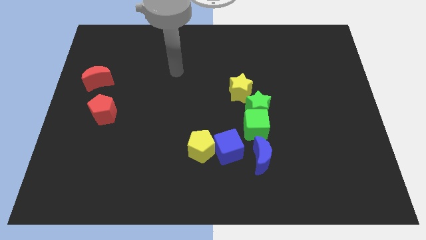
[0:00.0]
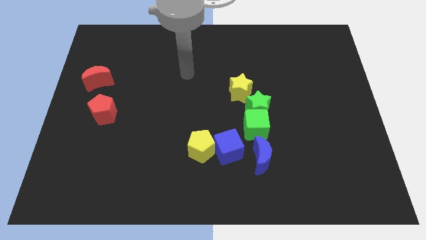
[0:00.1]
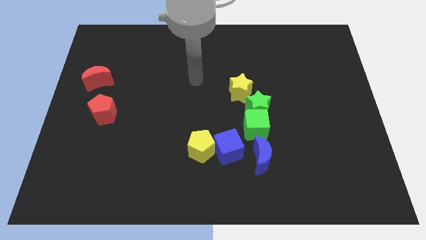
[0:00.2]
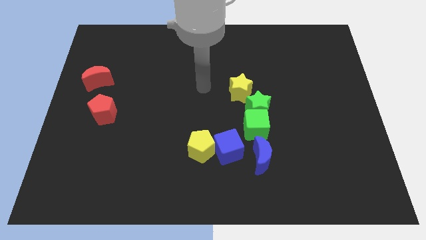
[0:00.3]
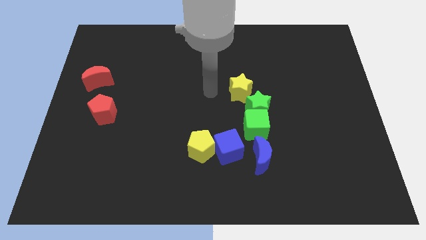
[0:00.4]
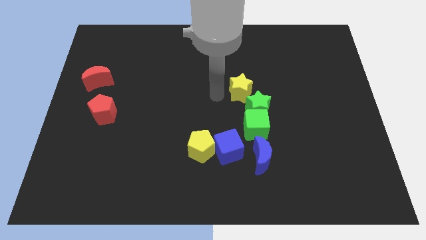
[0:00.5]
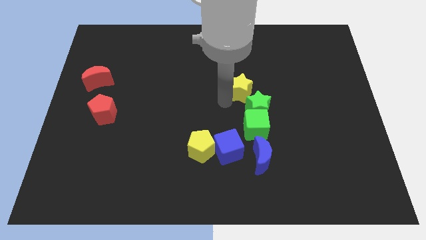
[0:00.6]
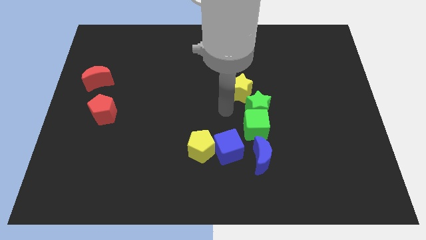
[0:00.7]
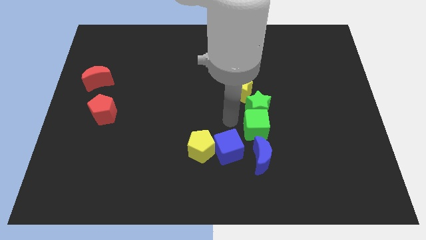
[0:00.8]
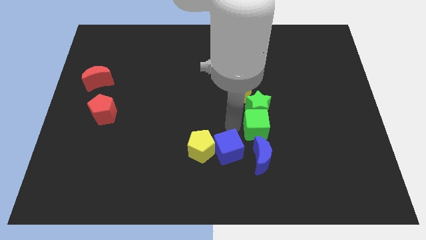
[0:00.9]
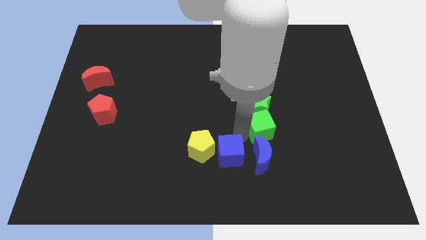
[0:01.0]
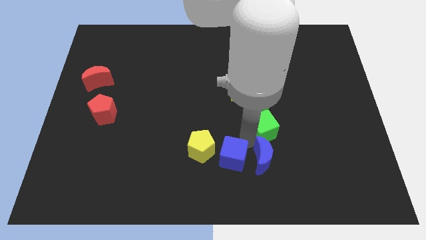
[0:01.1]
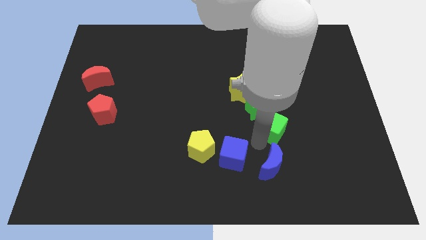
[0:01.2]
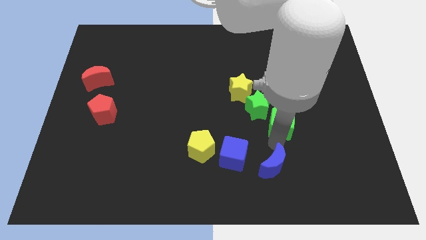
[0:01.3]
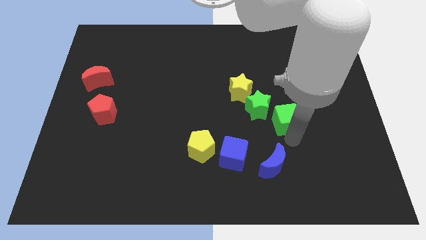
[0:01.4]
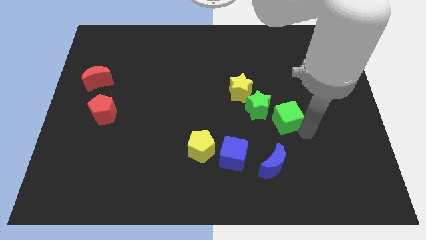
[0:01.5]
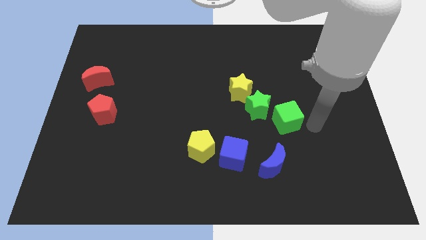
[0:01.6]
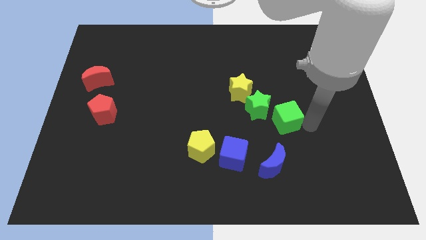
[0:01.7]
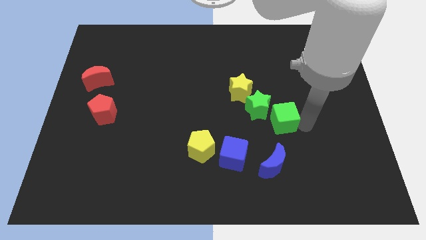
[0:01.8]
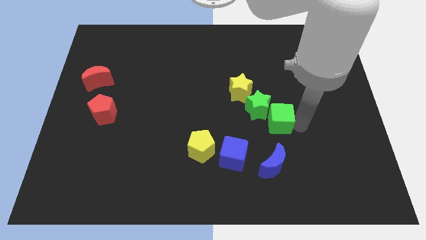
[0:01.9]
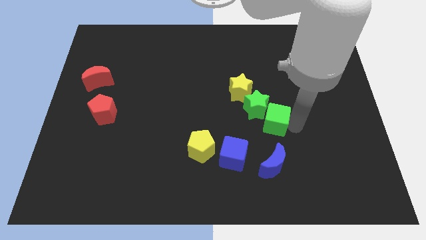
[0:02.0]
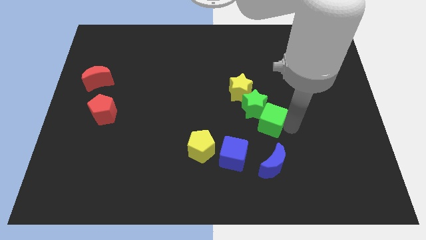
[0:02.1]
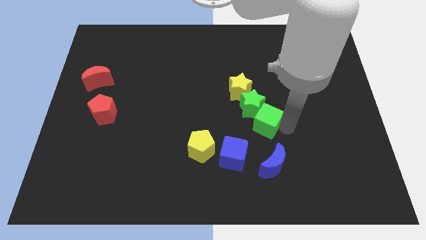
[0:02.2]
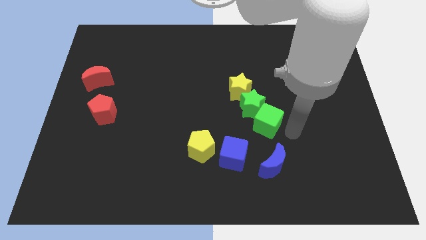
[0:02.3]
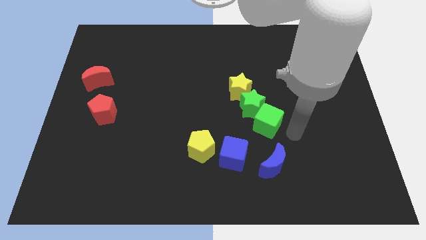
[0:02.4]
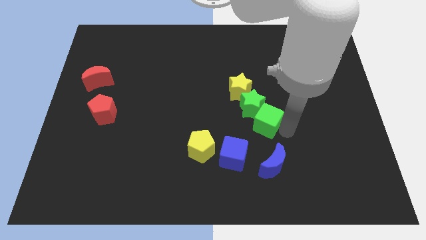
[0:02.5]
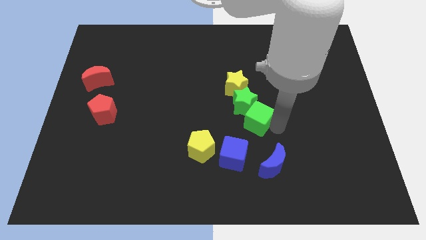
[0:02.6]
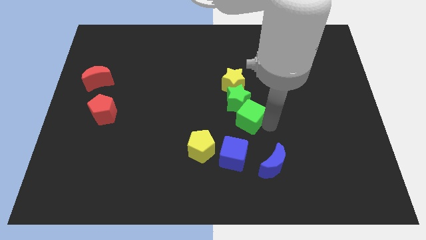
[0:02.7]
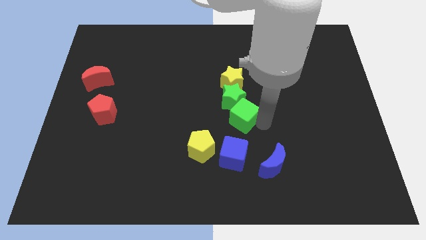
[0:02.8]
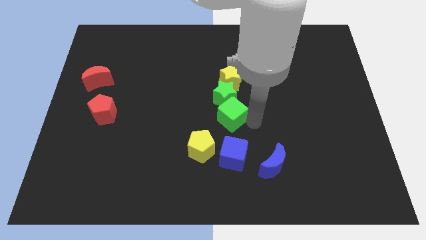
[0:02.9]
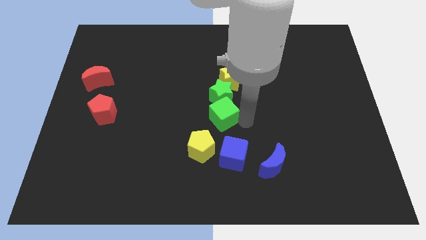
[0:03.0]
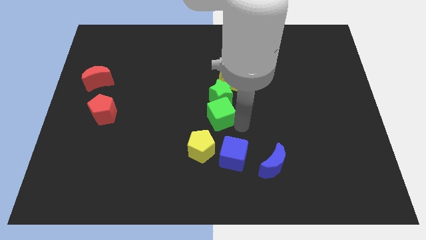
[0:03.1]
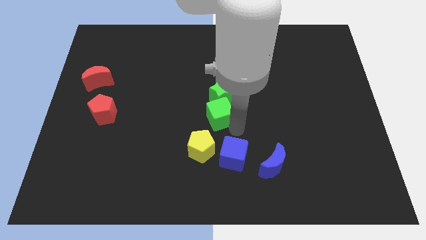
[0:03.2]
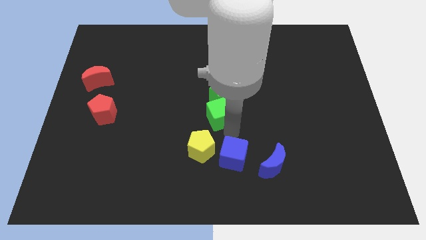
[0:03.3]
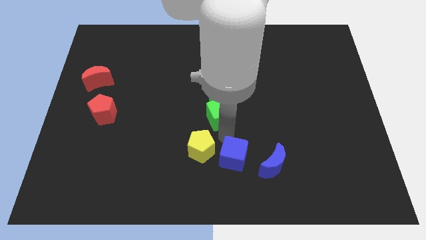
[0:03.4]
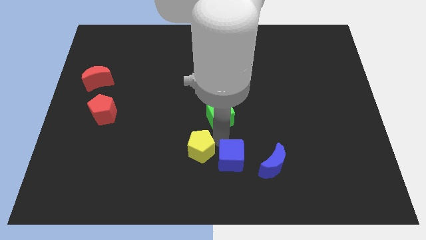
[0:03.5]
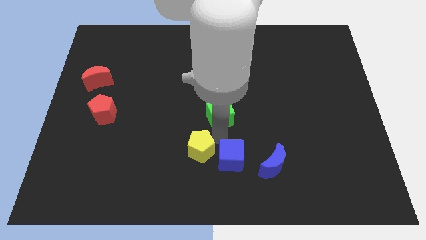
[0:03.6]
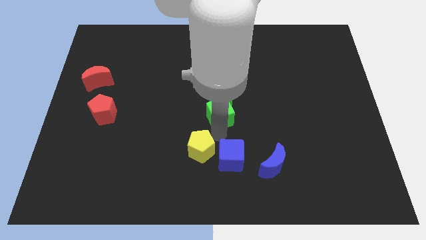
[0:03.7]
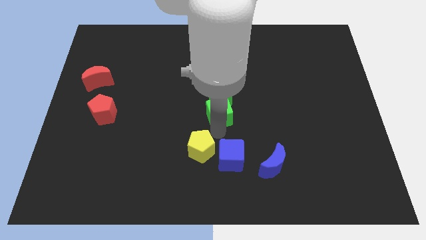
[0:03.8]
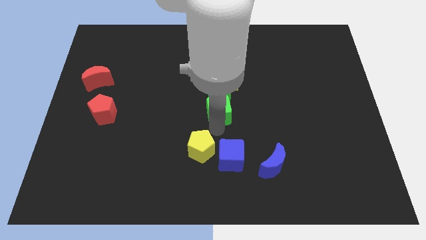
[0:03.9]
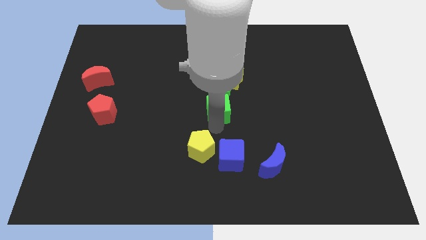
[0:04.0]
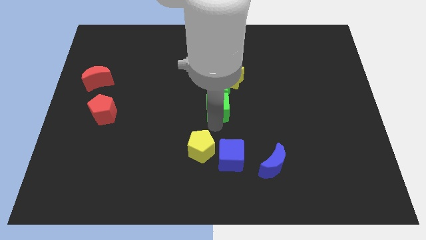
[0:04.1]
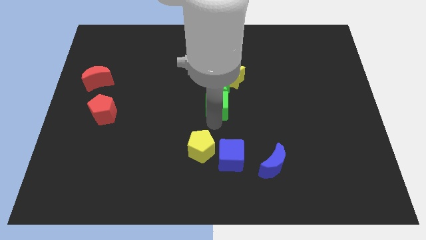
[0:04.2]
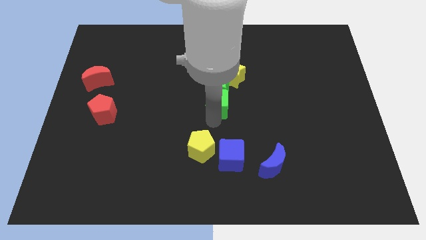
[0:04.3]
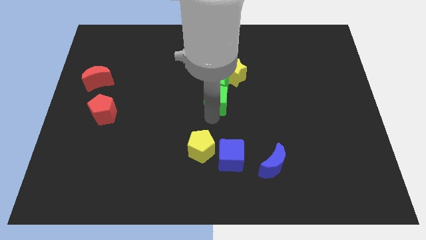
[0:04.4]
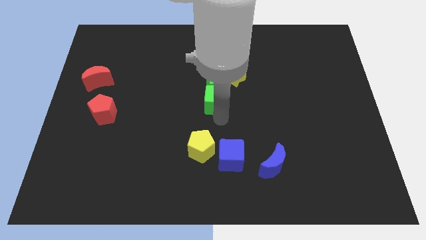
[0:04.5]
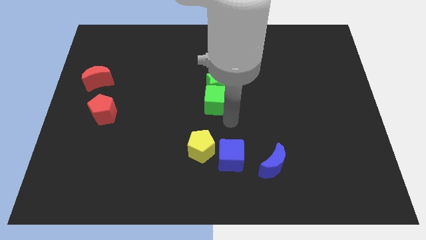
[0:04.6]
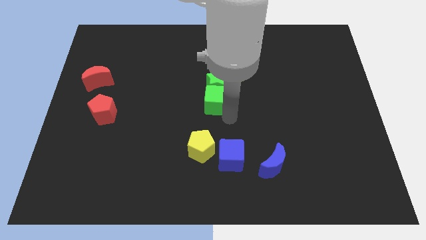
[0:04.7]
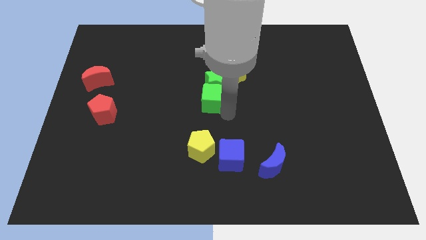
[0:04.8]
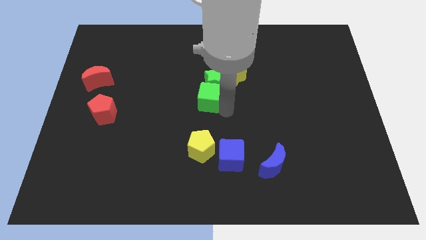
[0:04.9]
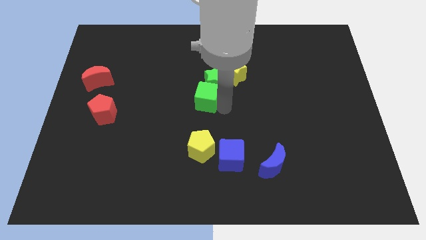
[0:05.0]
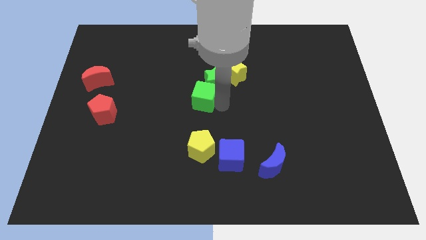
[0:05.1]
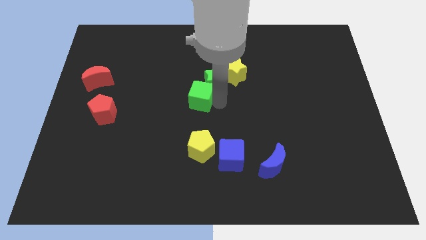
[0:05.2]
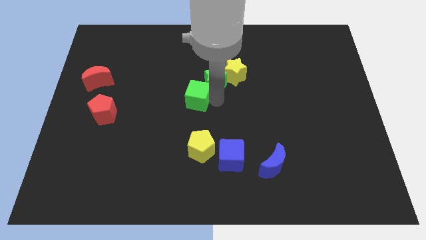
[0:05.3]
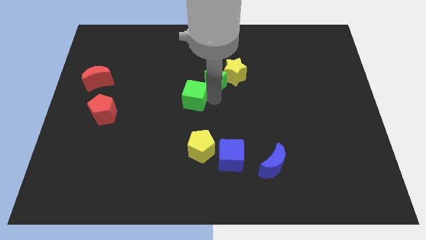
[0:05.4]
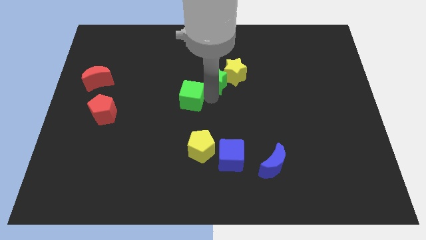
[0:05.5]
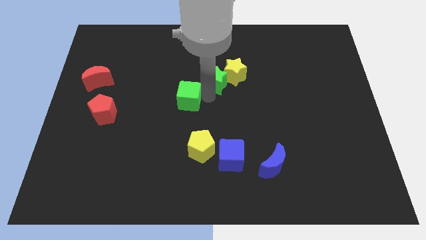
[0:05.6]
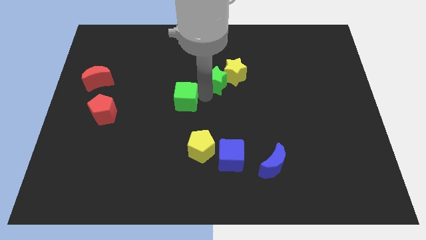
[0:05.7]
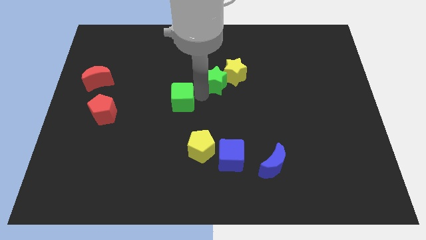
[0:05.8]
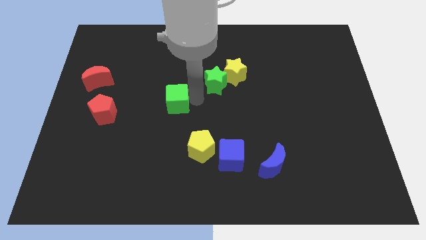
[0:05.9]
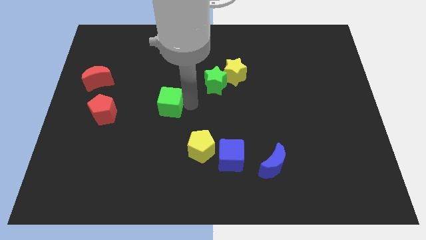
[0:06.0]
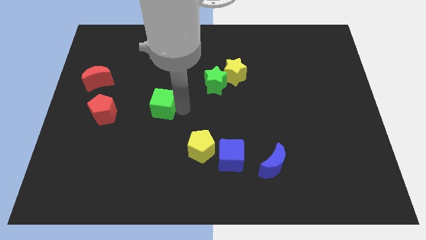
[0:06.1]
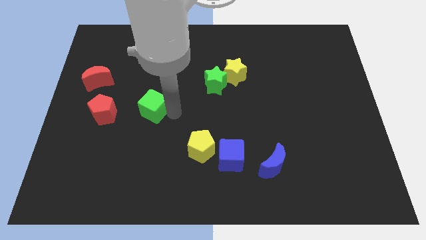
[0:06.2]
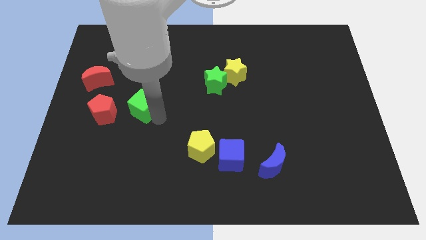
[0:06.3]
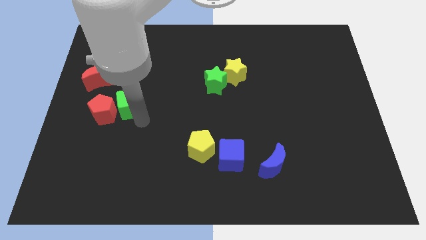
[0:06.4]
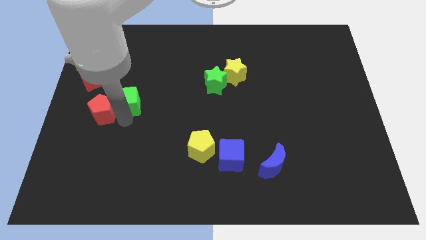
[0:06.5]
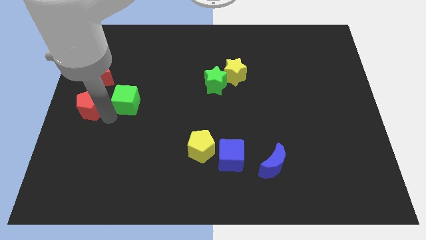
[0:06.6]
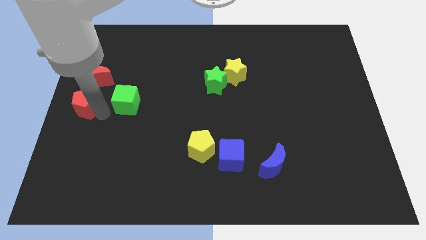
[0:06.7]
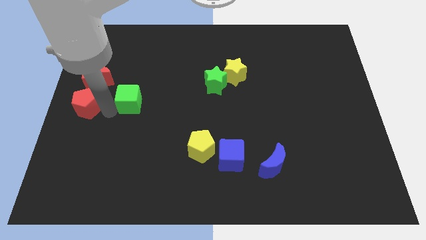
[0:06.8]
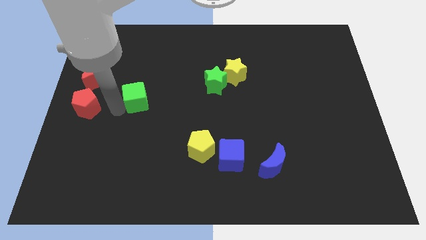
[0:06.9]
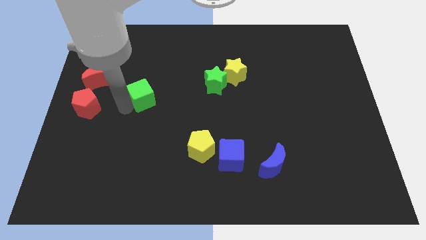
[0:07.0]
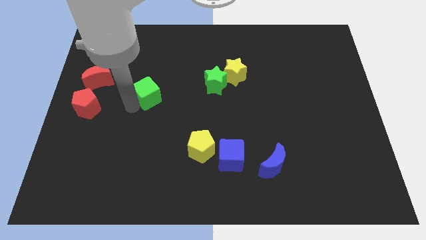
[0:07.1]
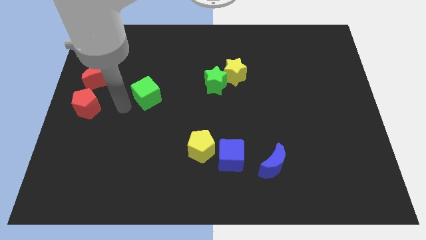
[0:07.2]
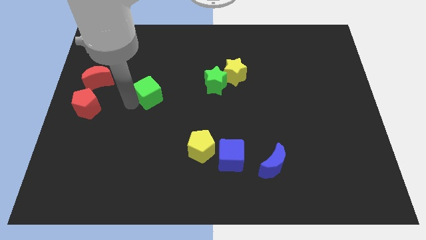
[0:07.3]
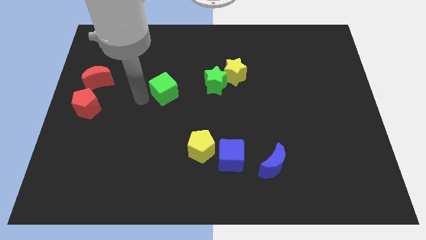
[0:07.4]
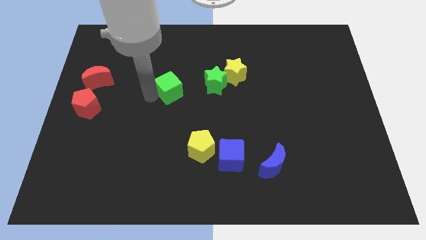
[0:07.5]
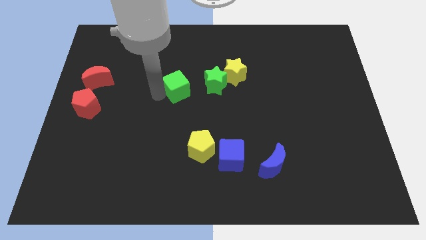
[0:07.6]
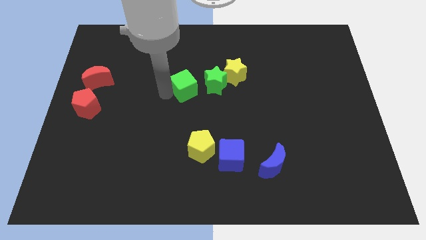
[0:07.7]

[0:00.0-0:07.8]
move the green cube just left of the yellow star
